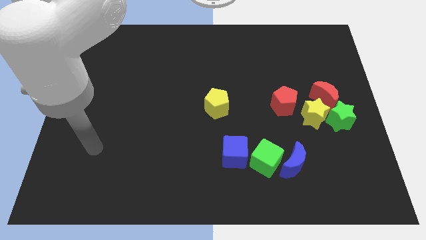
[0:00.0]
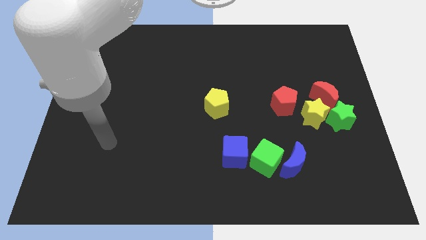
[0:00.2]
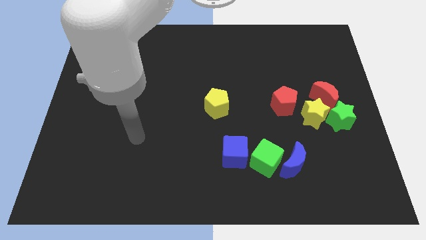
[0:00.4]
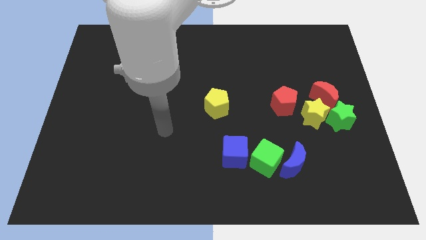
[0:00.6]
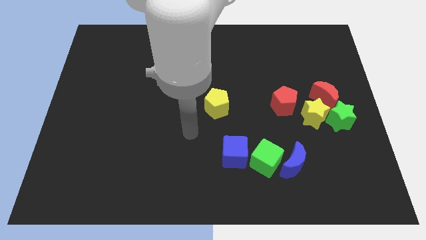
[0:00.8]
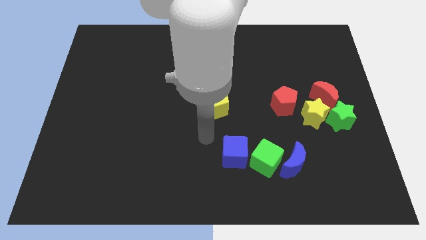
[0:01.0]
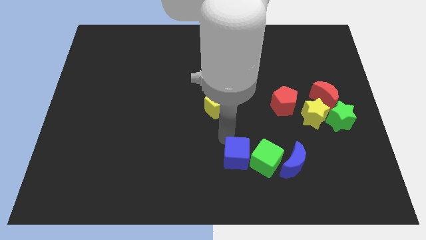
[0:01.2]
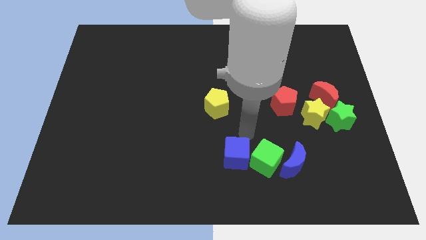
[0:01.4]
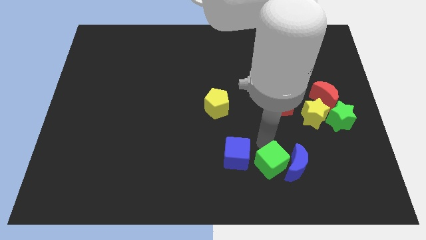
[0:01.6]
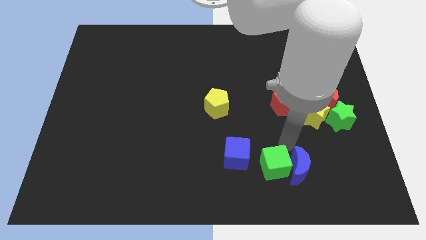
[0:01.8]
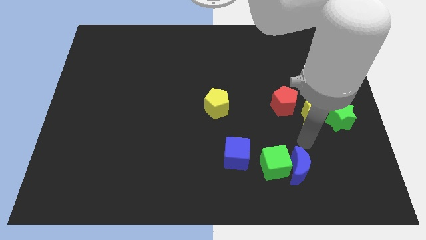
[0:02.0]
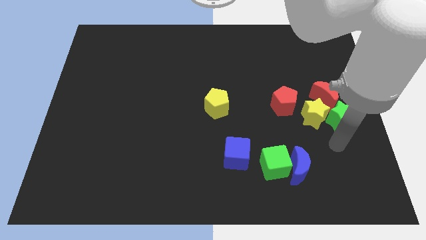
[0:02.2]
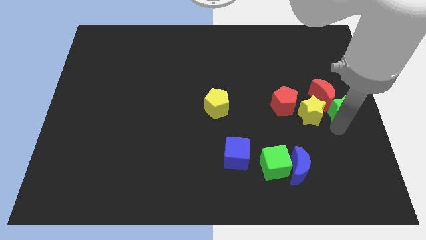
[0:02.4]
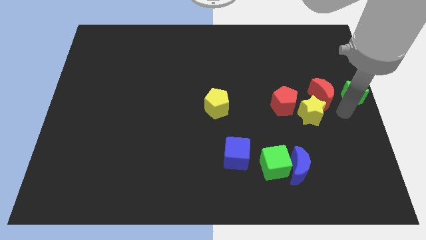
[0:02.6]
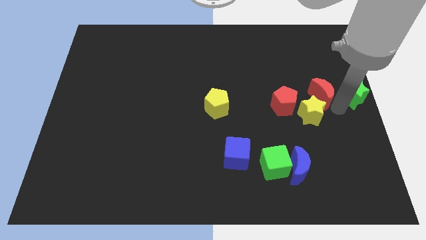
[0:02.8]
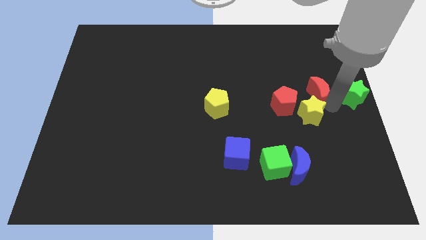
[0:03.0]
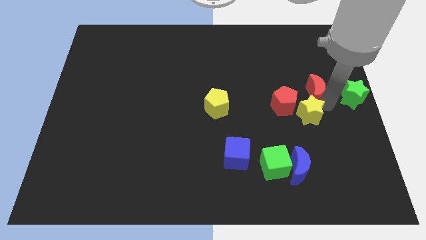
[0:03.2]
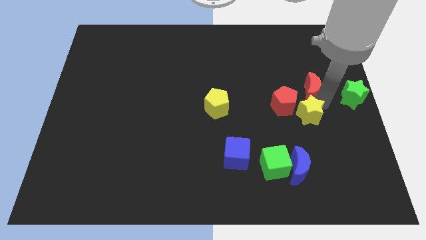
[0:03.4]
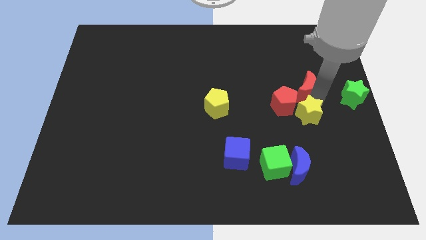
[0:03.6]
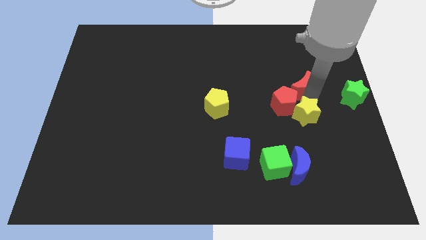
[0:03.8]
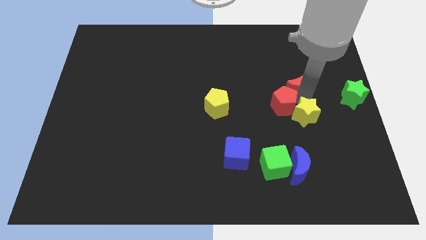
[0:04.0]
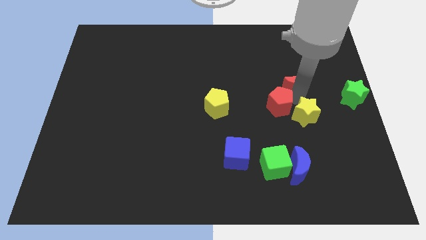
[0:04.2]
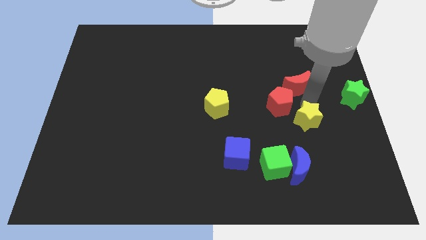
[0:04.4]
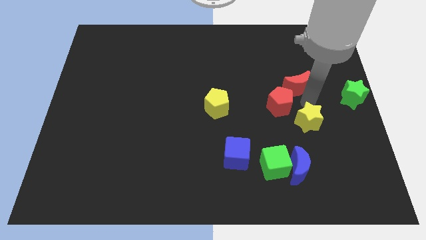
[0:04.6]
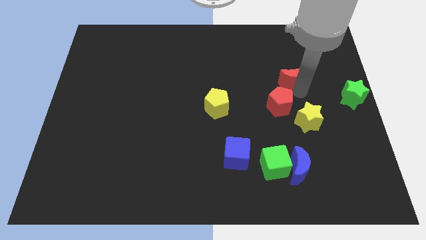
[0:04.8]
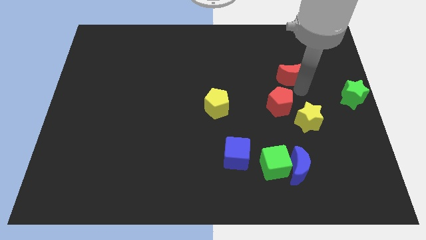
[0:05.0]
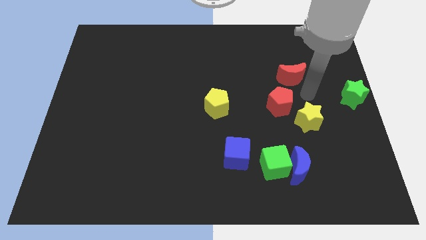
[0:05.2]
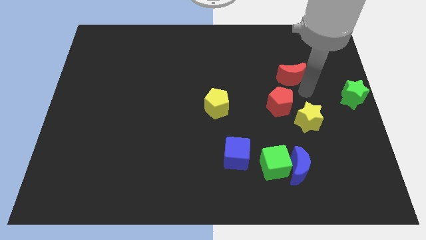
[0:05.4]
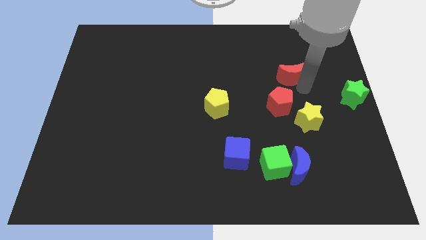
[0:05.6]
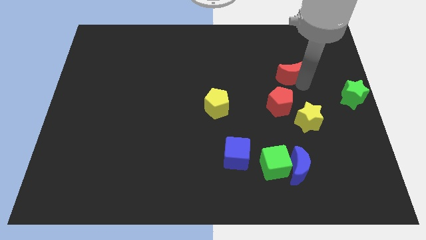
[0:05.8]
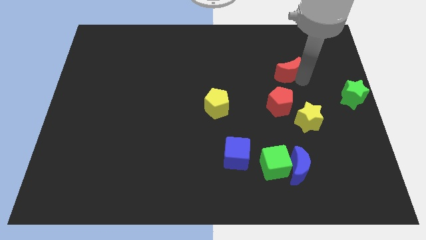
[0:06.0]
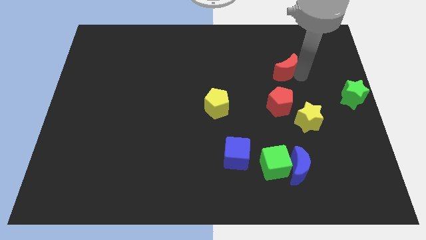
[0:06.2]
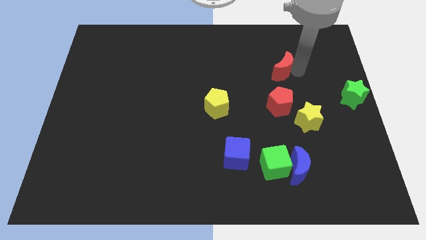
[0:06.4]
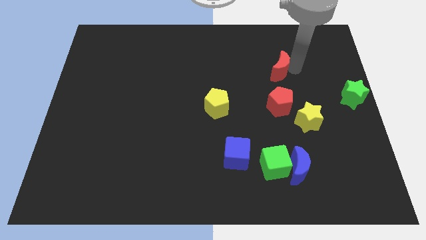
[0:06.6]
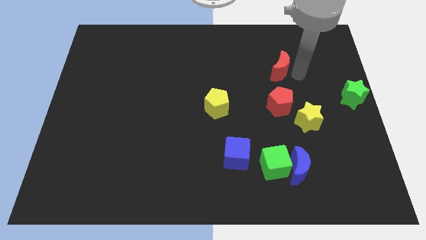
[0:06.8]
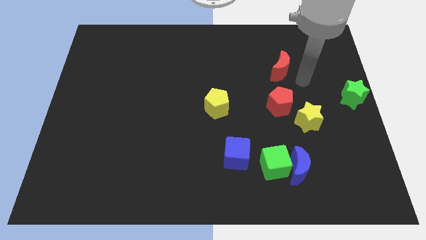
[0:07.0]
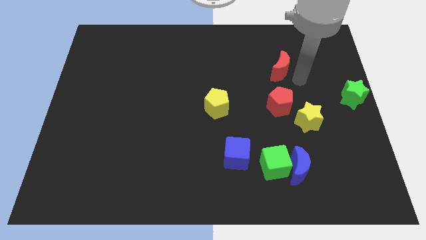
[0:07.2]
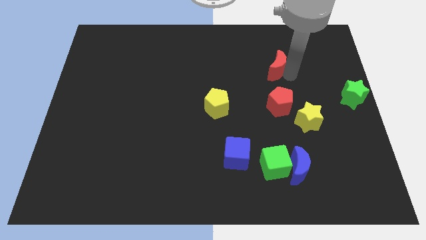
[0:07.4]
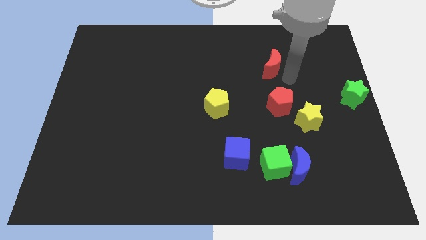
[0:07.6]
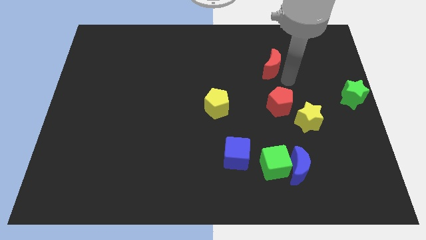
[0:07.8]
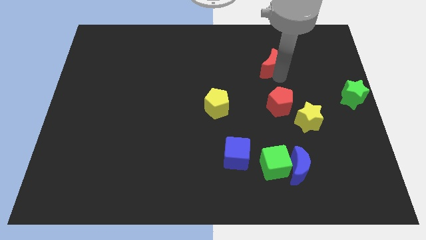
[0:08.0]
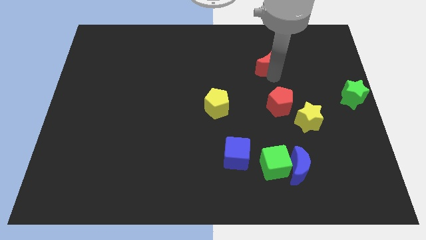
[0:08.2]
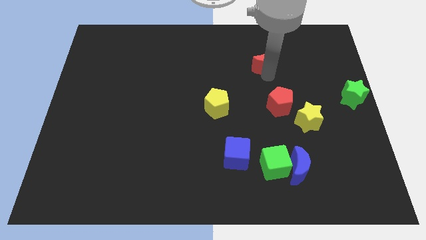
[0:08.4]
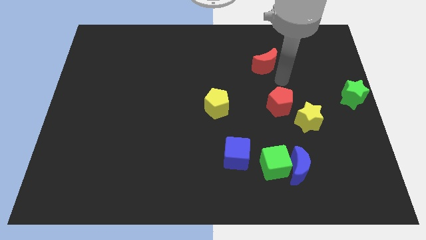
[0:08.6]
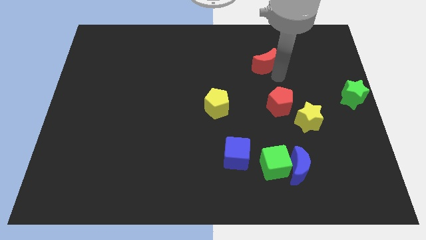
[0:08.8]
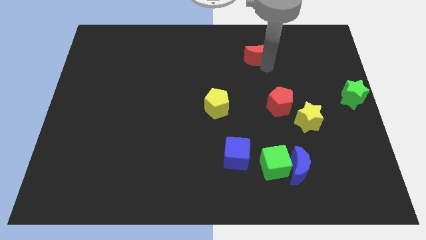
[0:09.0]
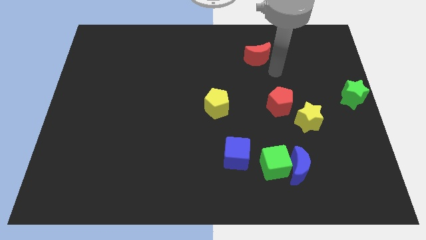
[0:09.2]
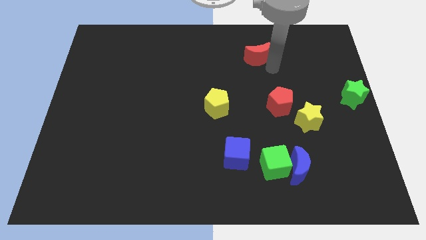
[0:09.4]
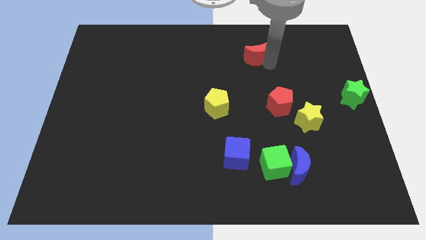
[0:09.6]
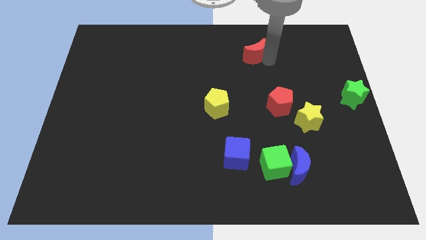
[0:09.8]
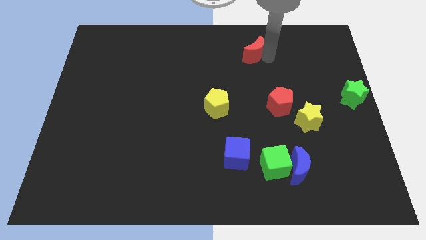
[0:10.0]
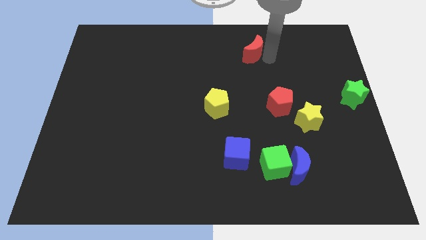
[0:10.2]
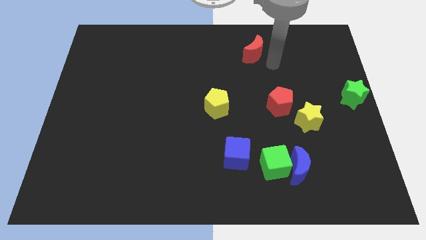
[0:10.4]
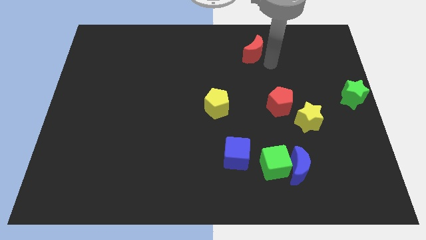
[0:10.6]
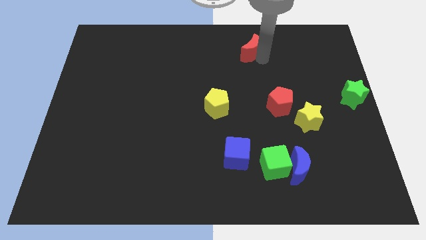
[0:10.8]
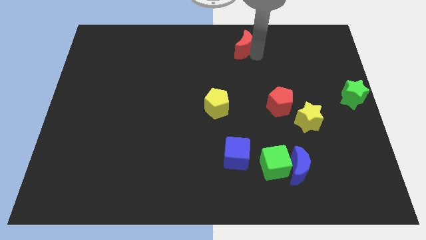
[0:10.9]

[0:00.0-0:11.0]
move the red moon to the top side

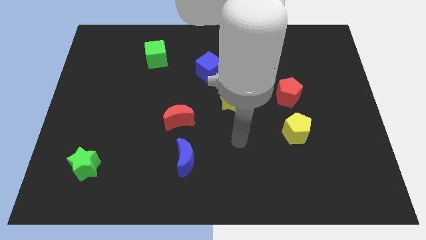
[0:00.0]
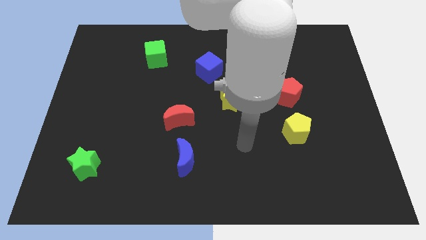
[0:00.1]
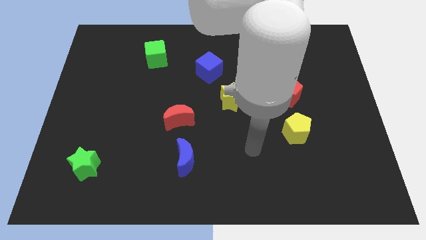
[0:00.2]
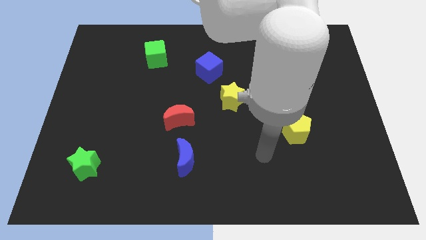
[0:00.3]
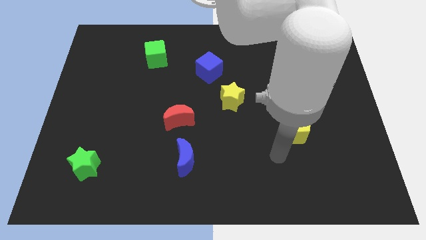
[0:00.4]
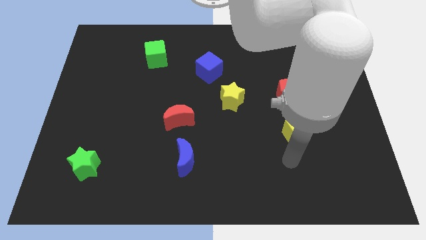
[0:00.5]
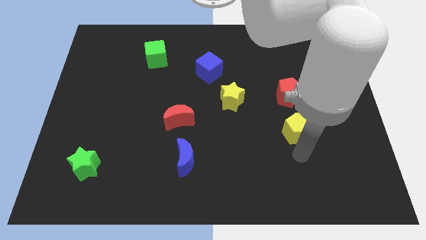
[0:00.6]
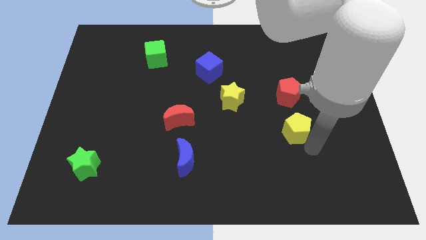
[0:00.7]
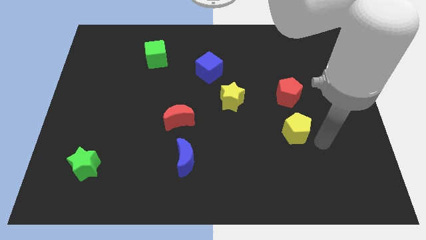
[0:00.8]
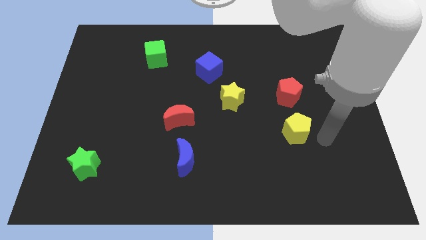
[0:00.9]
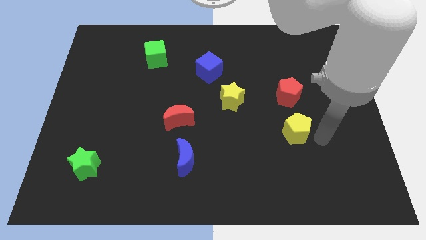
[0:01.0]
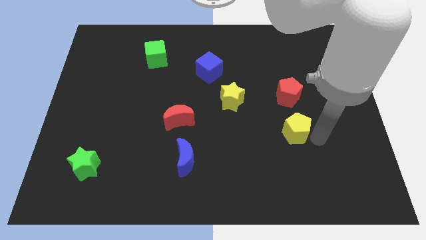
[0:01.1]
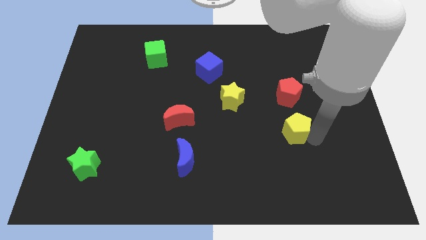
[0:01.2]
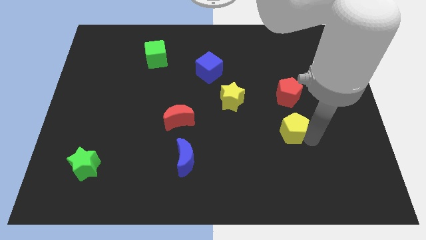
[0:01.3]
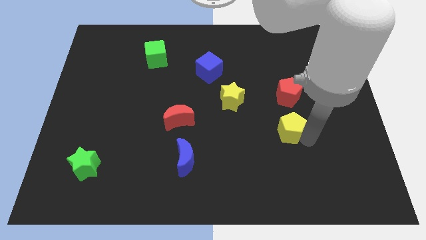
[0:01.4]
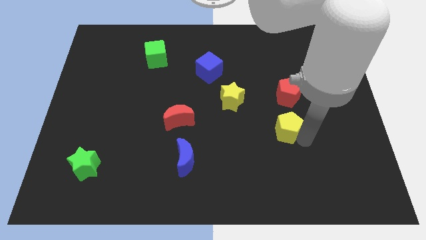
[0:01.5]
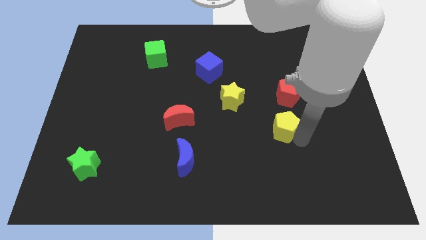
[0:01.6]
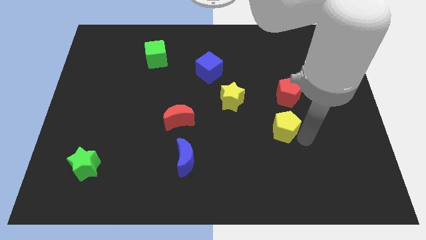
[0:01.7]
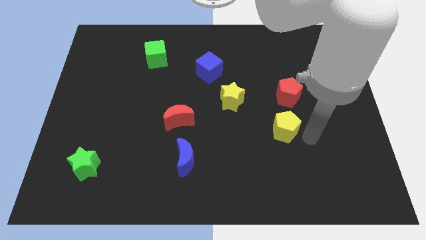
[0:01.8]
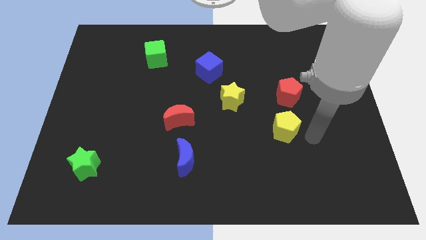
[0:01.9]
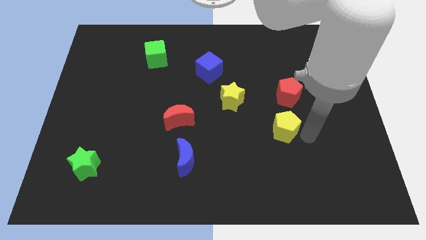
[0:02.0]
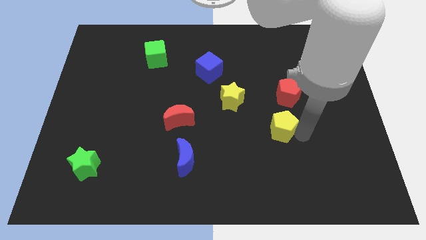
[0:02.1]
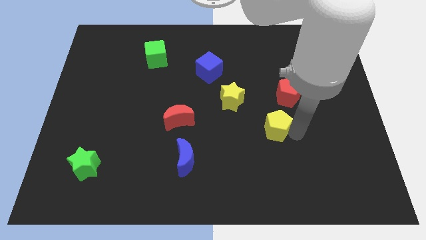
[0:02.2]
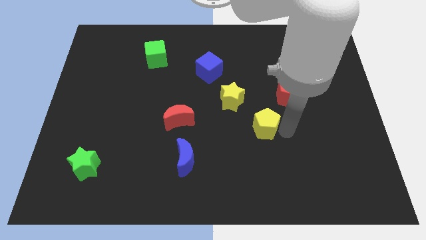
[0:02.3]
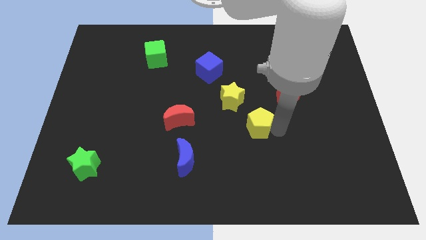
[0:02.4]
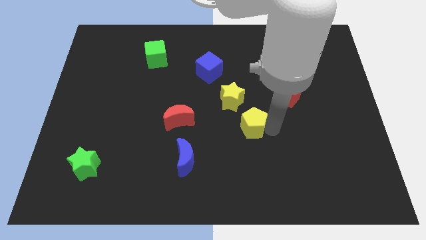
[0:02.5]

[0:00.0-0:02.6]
push the yellow pentagon to the center
